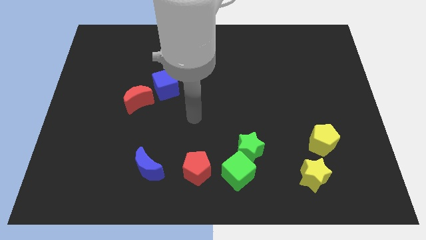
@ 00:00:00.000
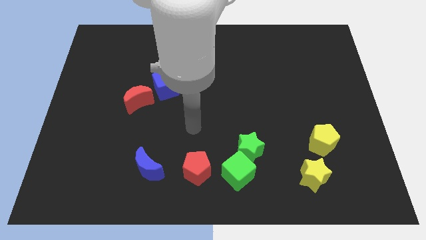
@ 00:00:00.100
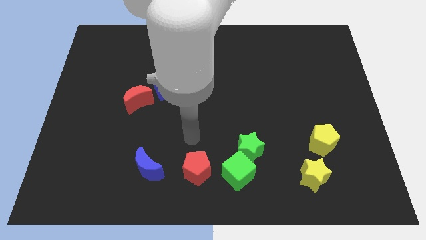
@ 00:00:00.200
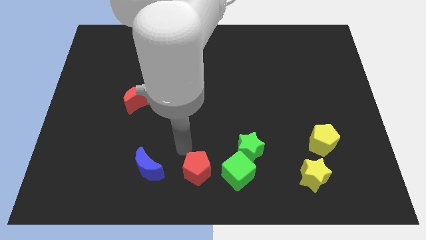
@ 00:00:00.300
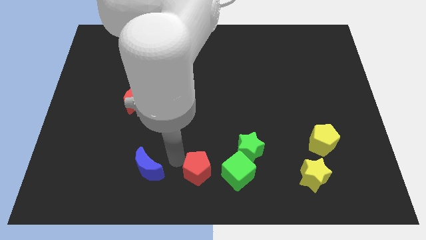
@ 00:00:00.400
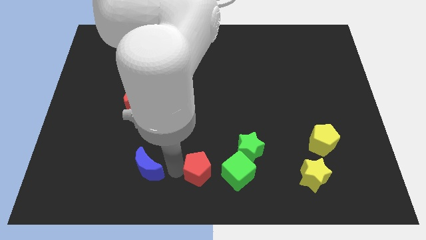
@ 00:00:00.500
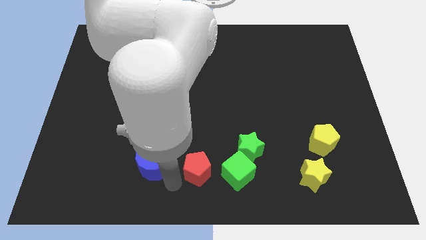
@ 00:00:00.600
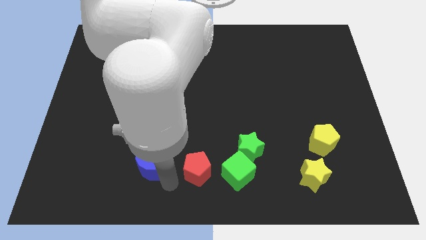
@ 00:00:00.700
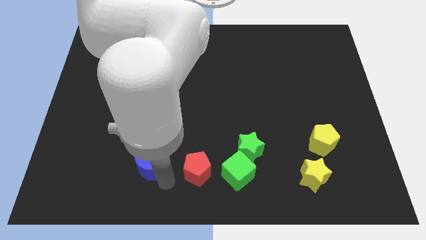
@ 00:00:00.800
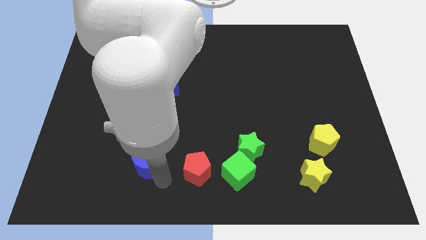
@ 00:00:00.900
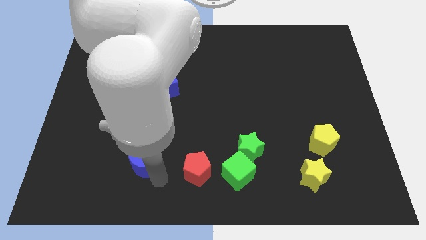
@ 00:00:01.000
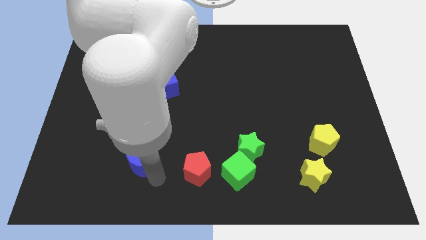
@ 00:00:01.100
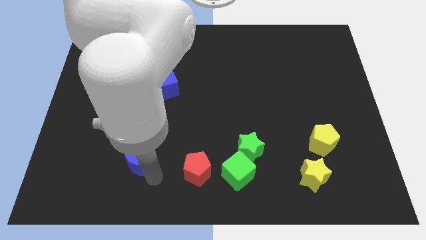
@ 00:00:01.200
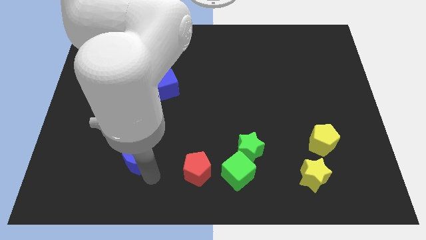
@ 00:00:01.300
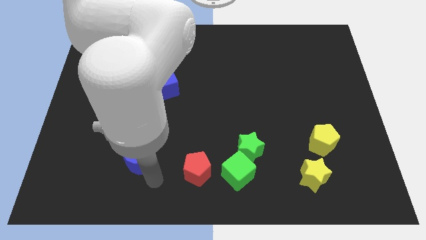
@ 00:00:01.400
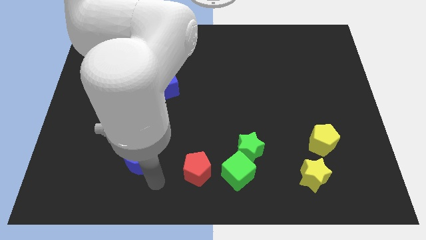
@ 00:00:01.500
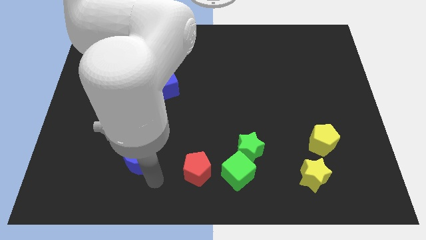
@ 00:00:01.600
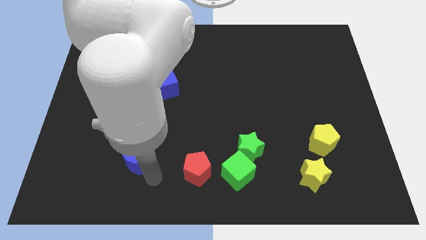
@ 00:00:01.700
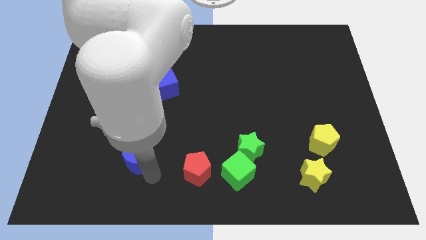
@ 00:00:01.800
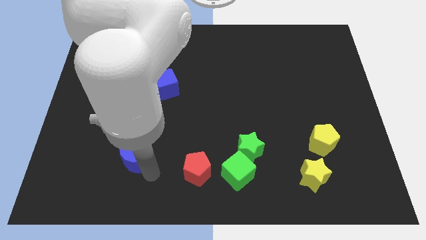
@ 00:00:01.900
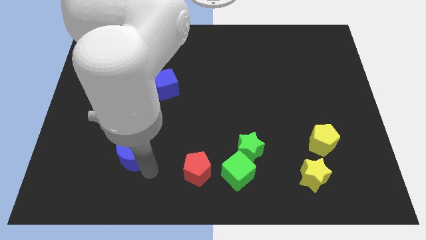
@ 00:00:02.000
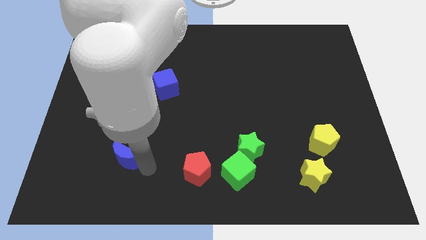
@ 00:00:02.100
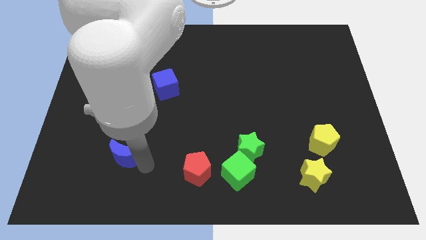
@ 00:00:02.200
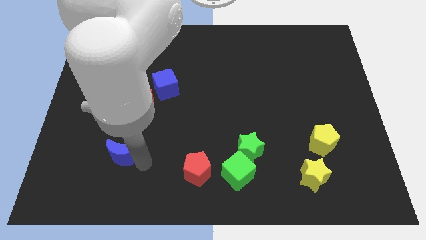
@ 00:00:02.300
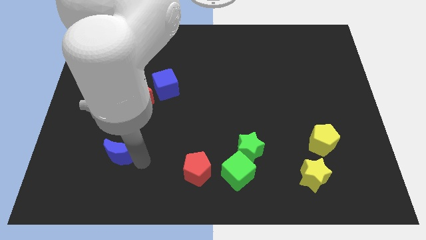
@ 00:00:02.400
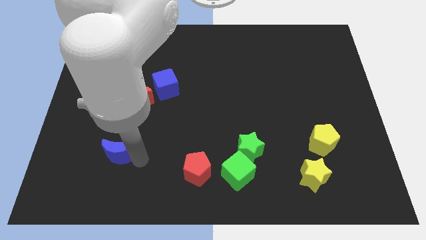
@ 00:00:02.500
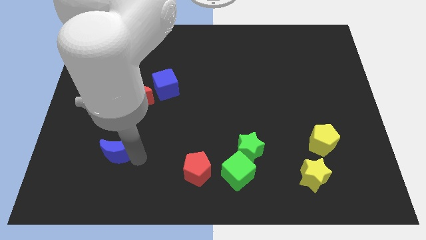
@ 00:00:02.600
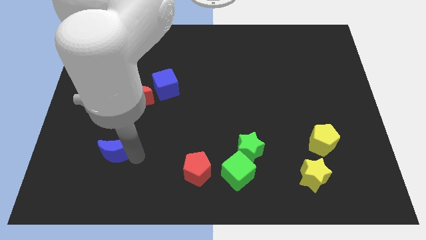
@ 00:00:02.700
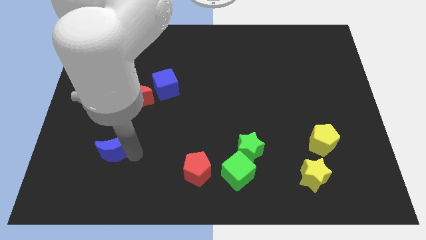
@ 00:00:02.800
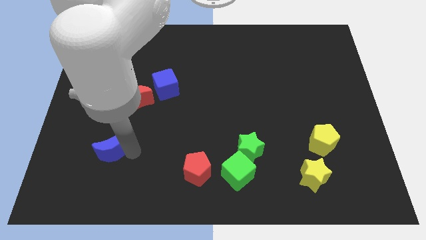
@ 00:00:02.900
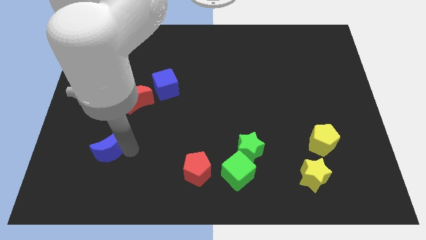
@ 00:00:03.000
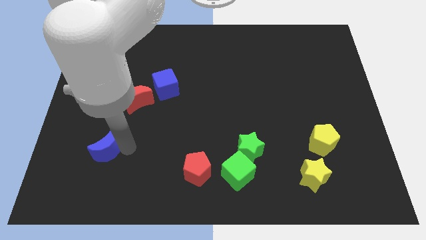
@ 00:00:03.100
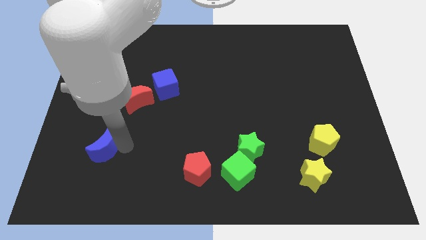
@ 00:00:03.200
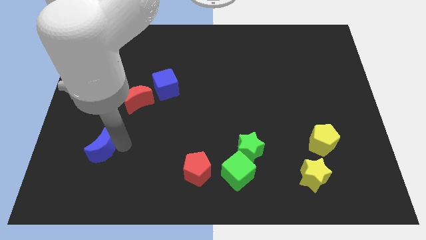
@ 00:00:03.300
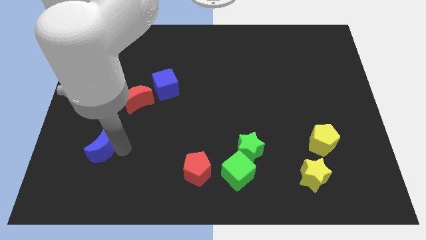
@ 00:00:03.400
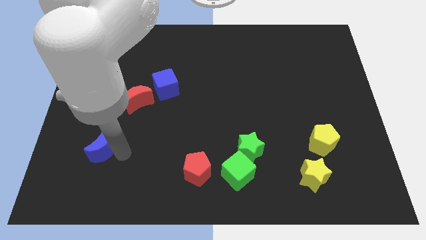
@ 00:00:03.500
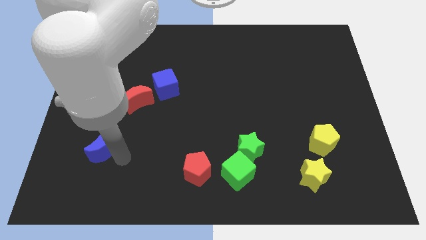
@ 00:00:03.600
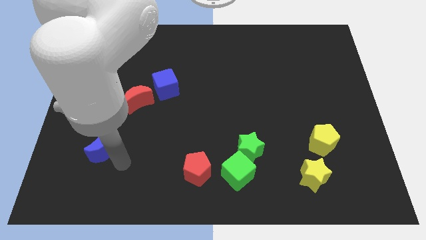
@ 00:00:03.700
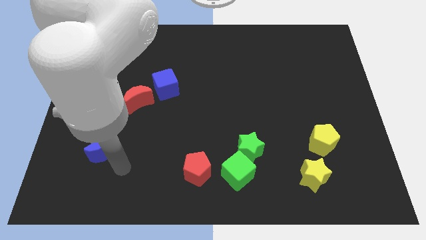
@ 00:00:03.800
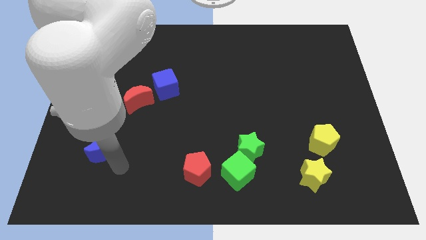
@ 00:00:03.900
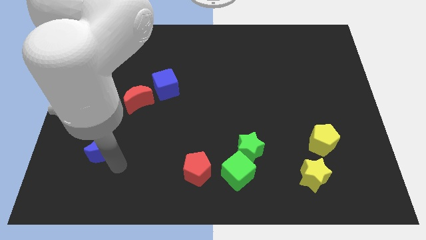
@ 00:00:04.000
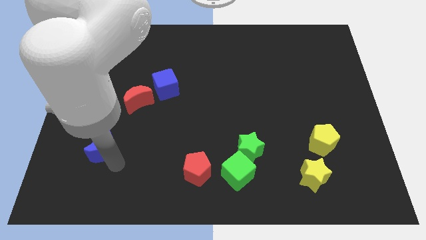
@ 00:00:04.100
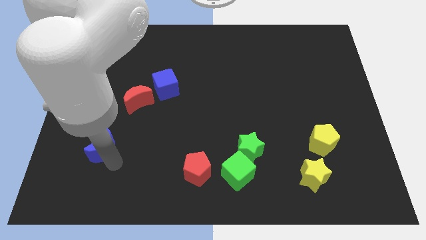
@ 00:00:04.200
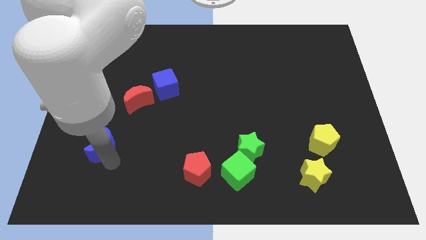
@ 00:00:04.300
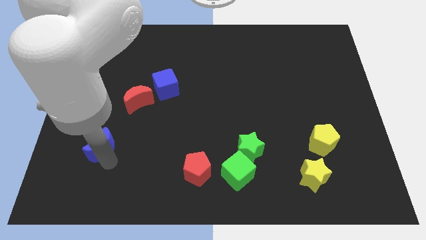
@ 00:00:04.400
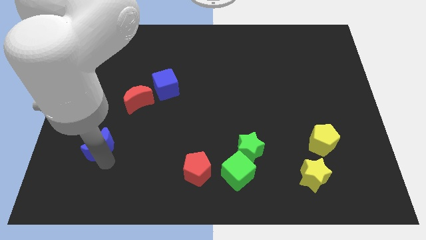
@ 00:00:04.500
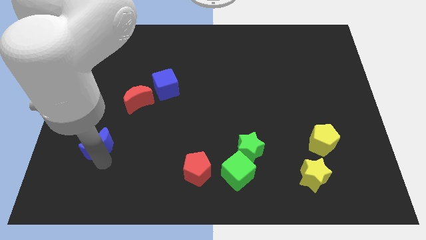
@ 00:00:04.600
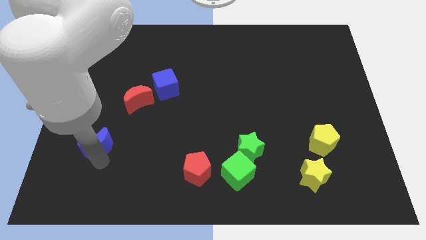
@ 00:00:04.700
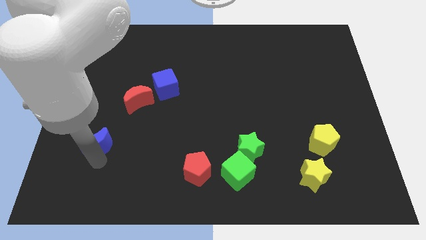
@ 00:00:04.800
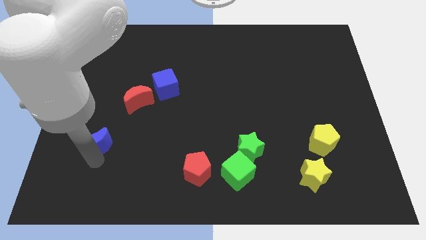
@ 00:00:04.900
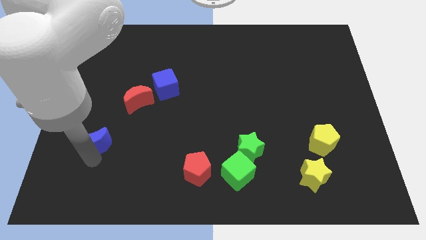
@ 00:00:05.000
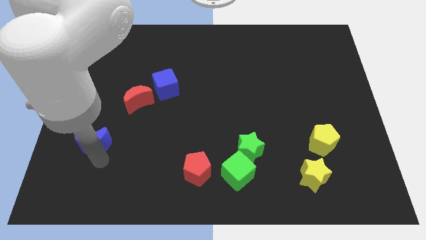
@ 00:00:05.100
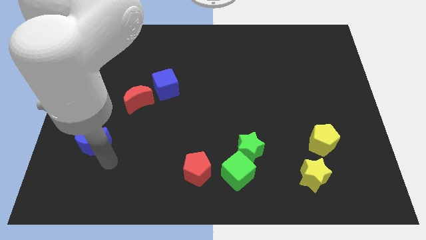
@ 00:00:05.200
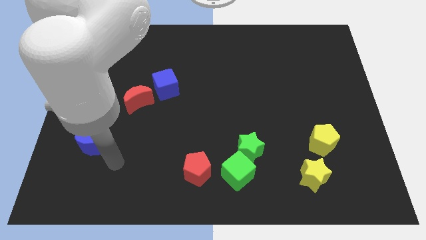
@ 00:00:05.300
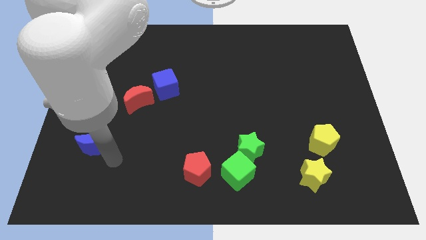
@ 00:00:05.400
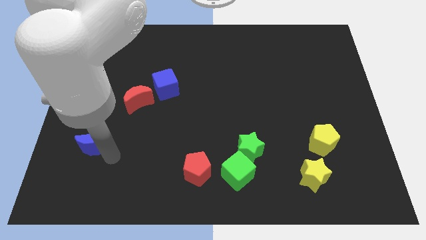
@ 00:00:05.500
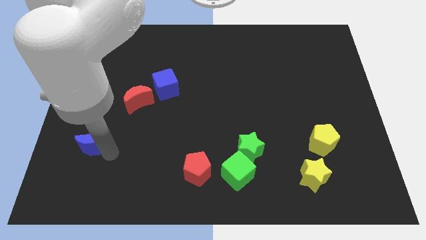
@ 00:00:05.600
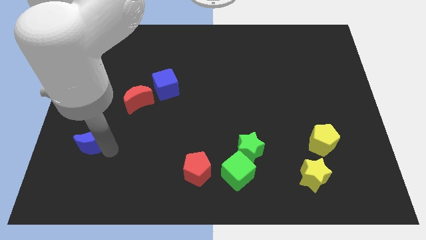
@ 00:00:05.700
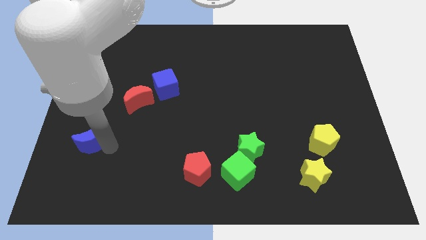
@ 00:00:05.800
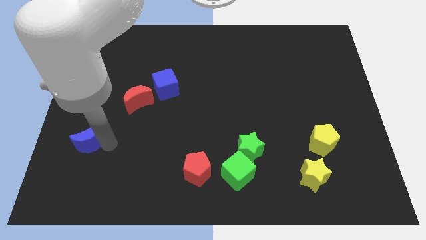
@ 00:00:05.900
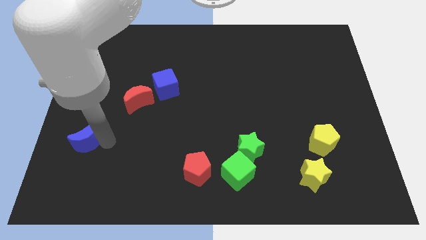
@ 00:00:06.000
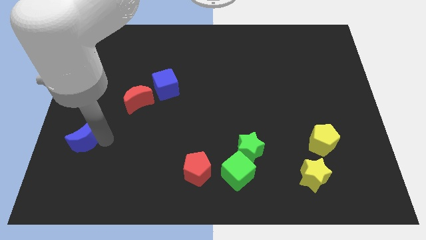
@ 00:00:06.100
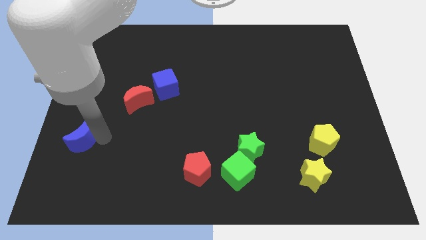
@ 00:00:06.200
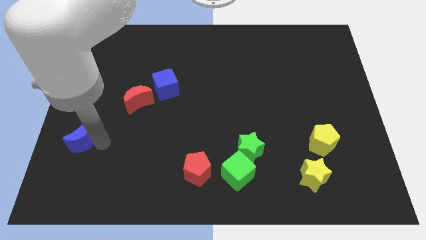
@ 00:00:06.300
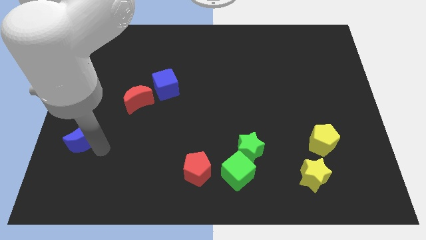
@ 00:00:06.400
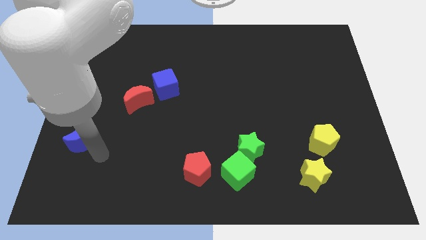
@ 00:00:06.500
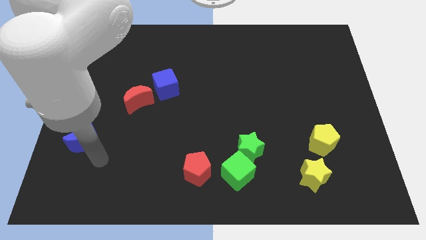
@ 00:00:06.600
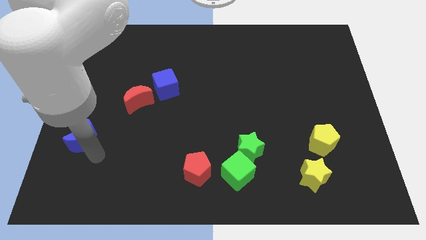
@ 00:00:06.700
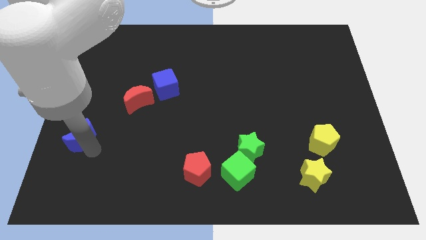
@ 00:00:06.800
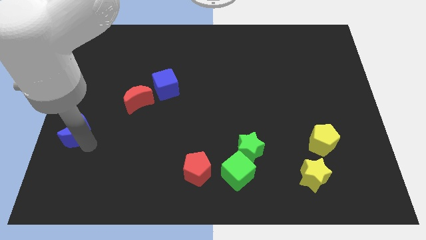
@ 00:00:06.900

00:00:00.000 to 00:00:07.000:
move the blue moon to the center left
